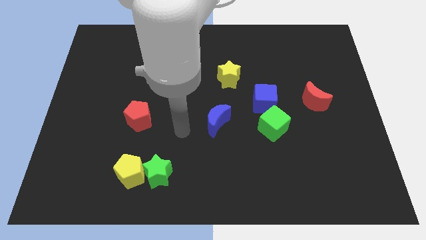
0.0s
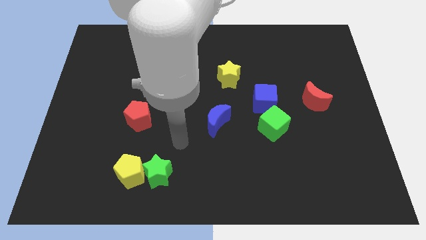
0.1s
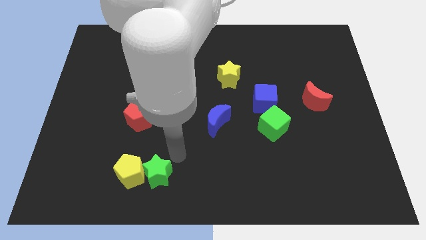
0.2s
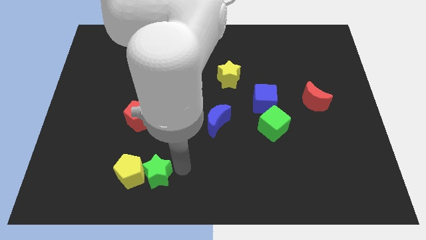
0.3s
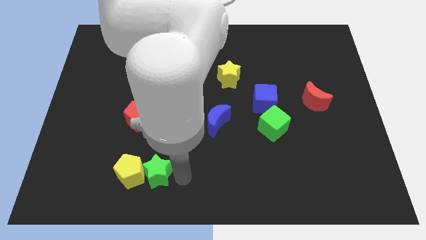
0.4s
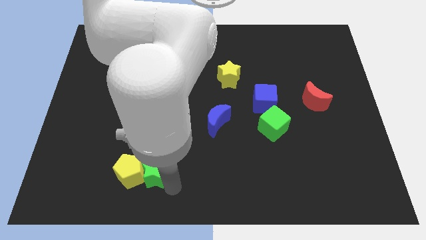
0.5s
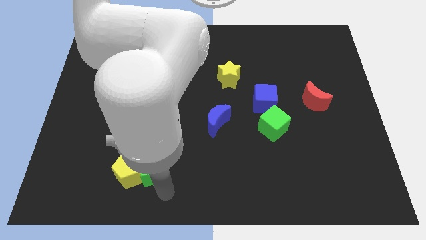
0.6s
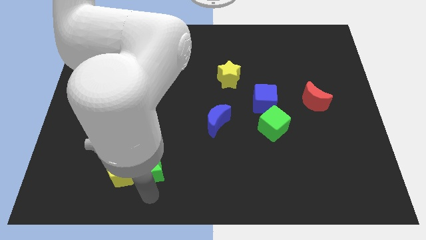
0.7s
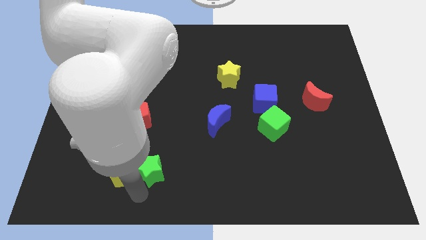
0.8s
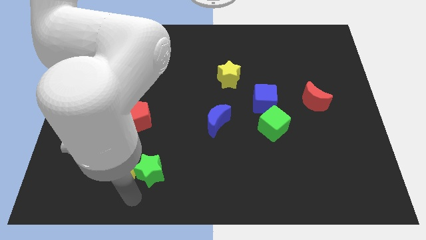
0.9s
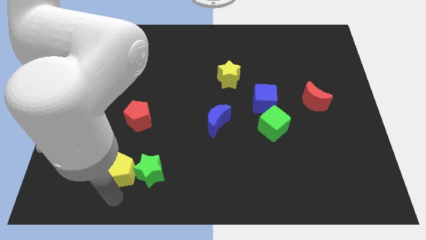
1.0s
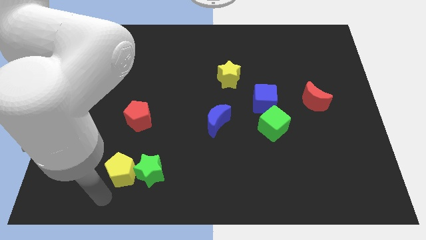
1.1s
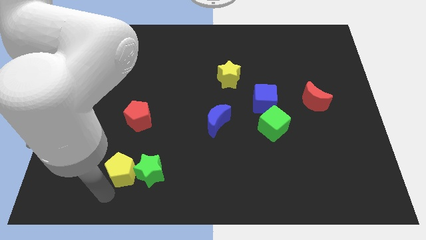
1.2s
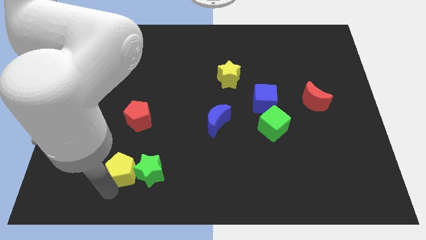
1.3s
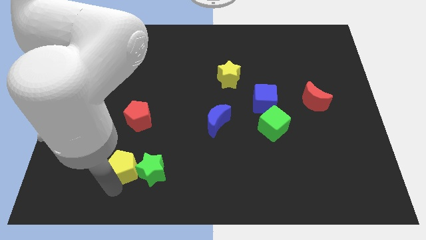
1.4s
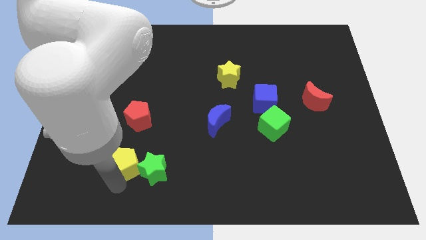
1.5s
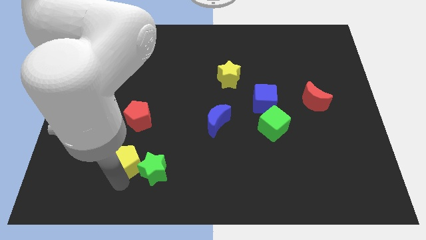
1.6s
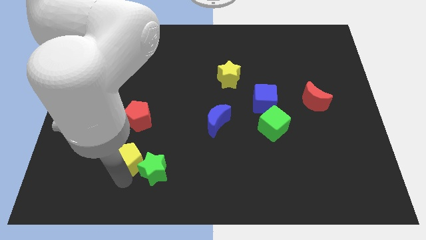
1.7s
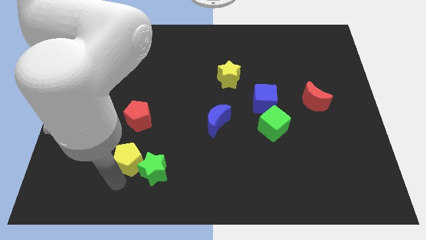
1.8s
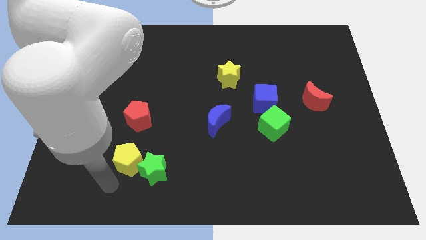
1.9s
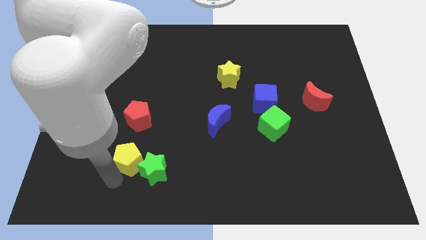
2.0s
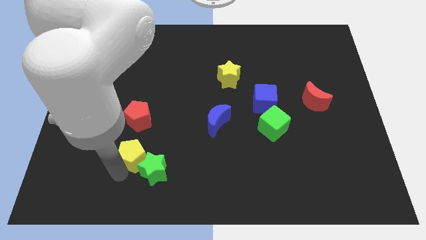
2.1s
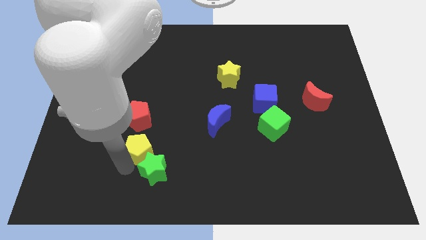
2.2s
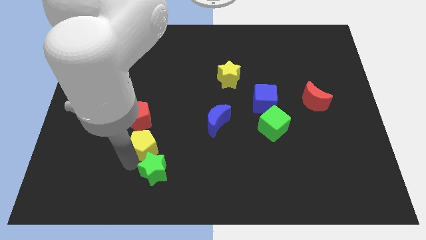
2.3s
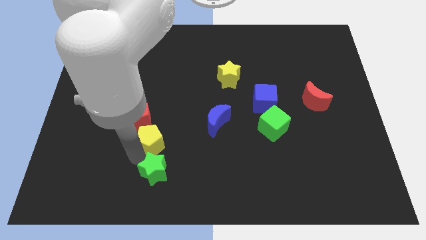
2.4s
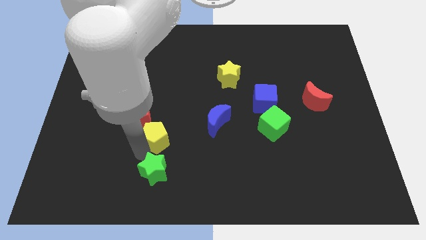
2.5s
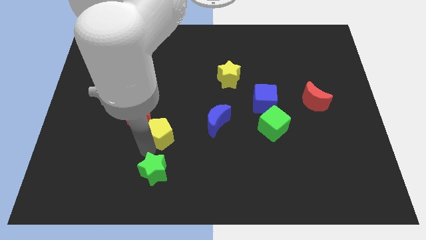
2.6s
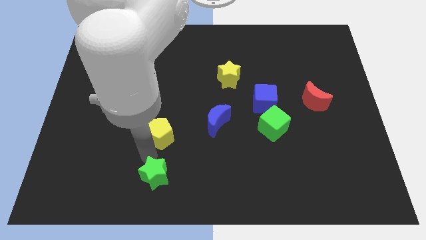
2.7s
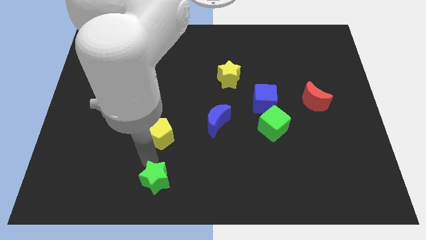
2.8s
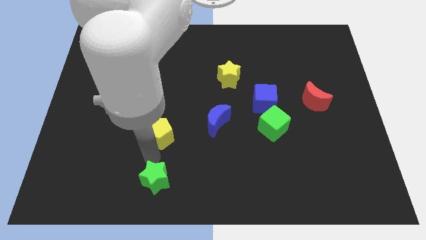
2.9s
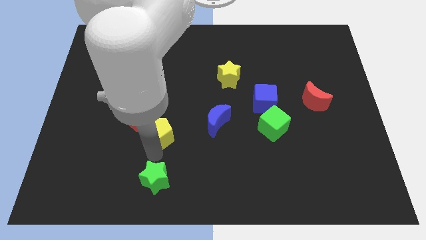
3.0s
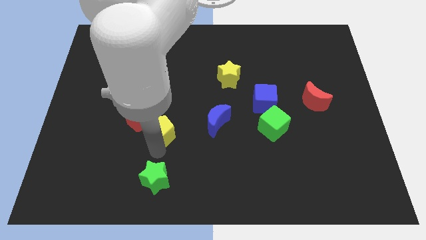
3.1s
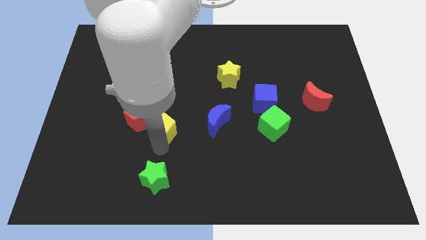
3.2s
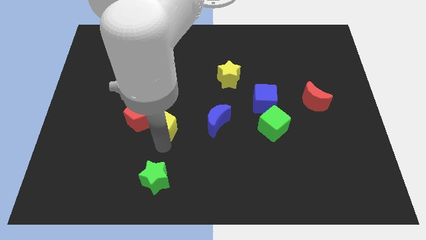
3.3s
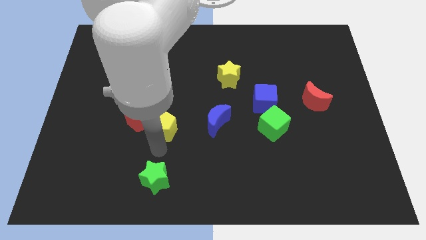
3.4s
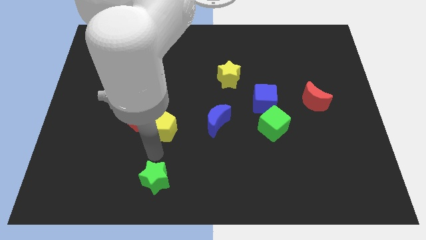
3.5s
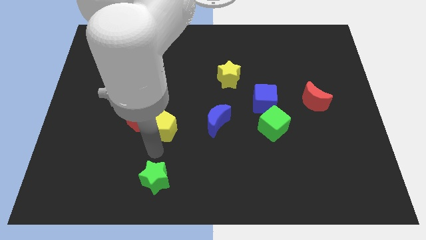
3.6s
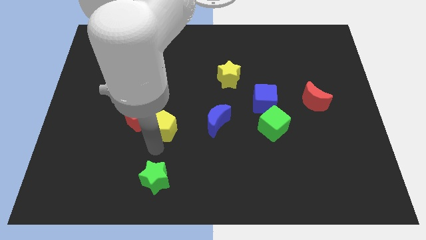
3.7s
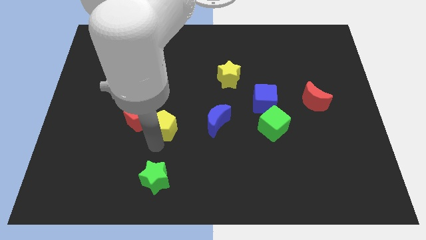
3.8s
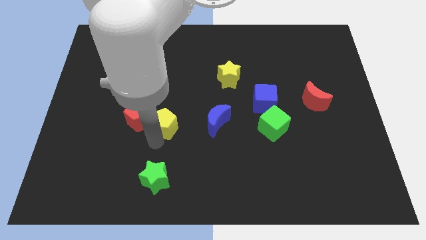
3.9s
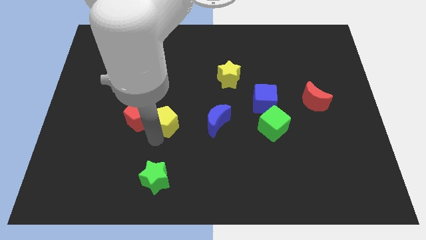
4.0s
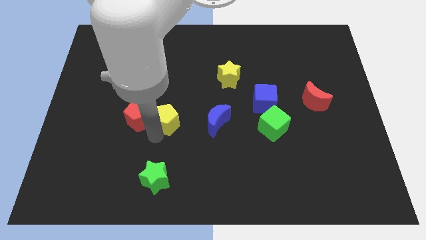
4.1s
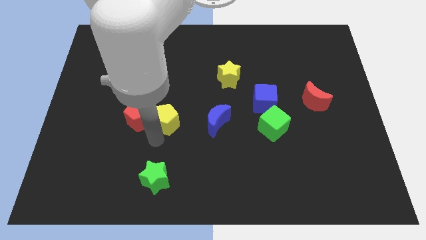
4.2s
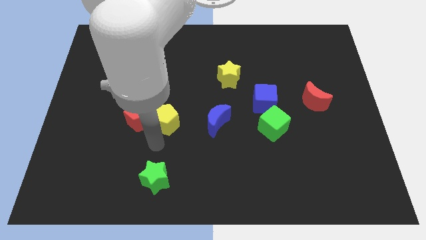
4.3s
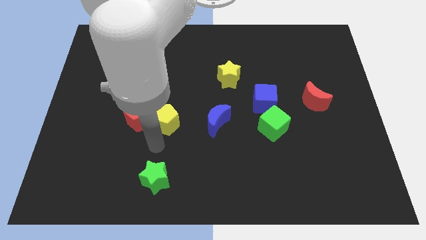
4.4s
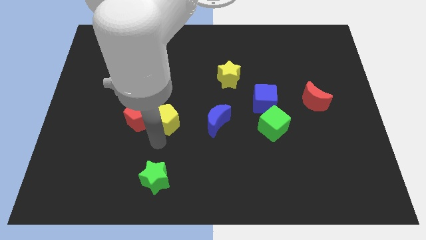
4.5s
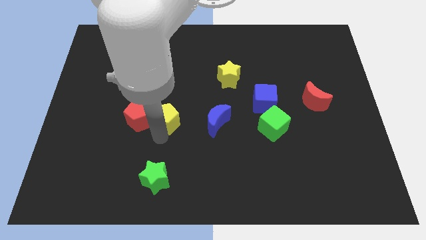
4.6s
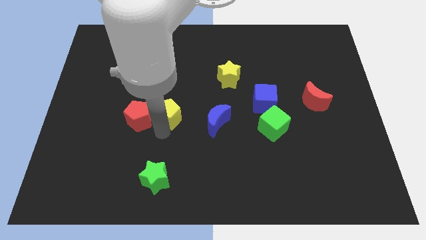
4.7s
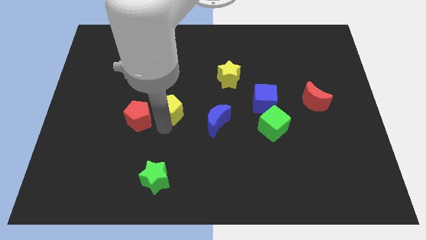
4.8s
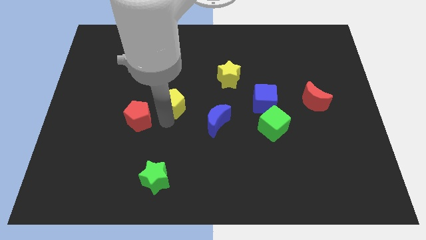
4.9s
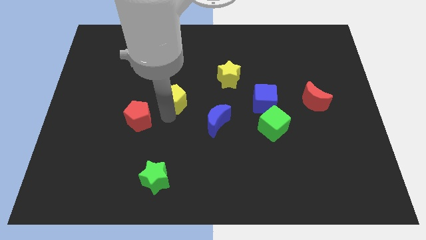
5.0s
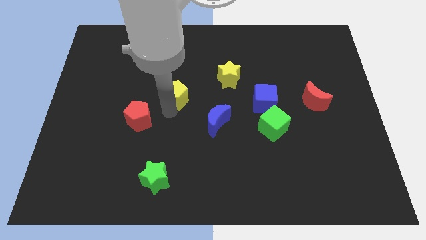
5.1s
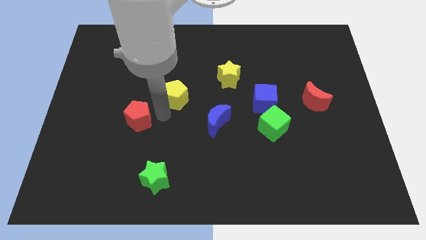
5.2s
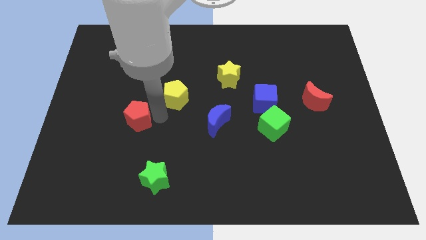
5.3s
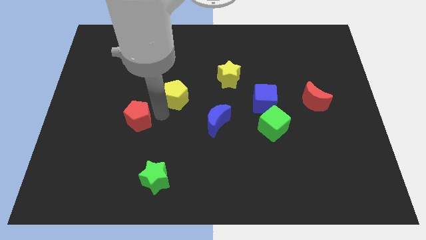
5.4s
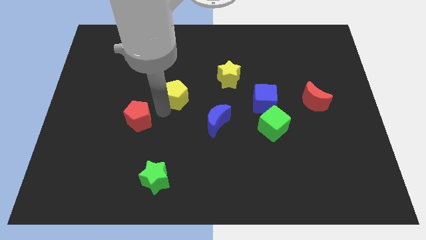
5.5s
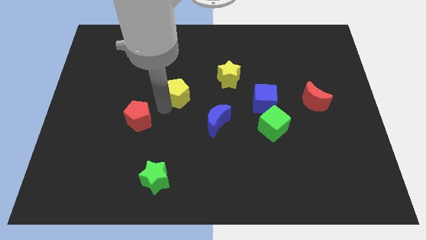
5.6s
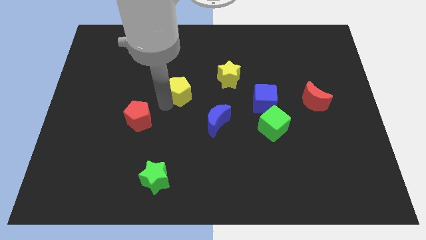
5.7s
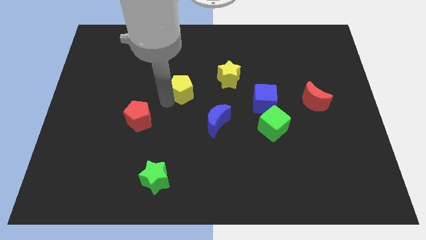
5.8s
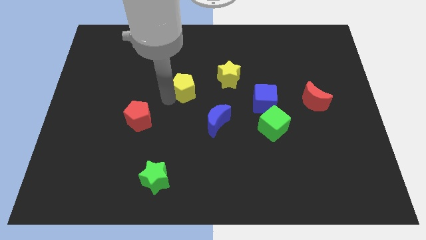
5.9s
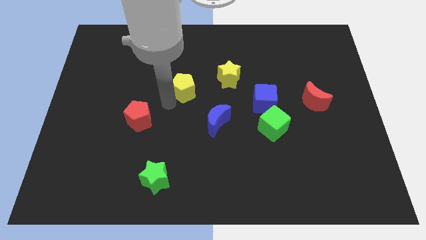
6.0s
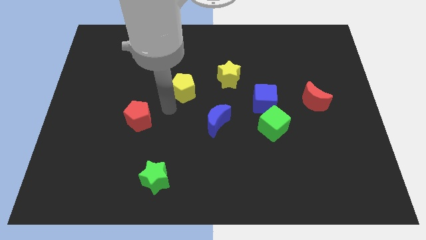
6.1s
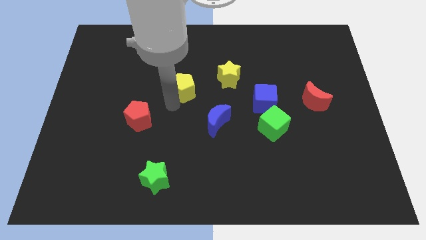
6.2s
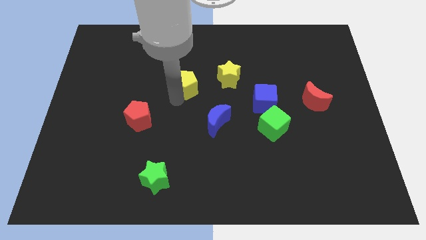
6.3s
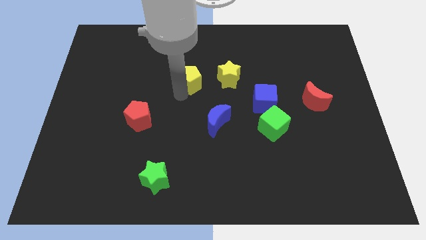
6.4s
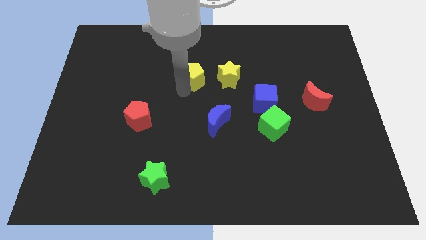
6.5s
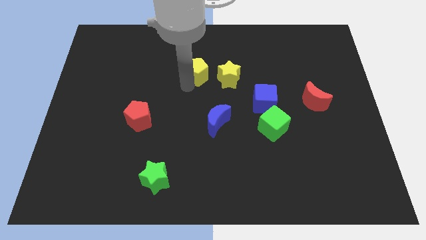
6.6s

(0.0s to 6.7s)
slide the yellow pentagon to the top left of the yellow star

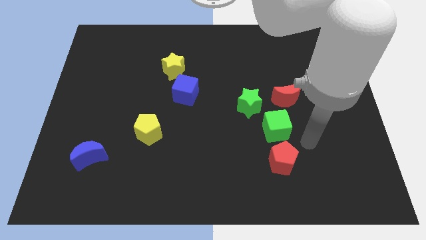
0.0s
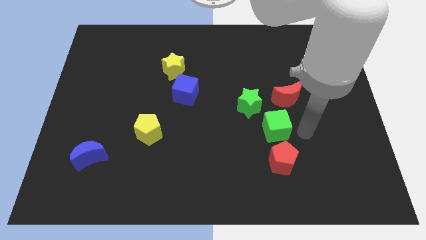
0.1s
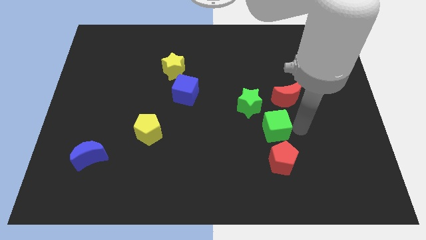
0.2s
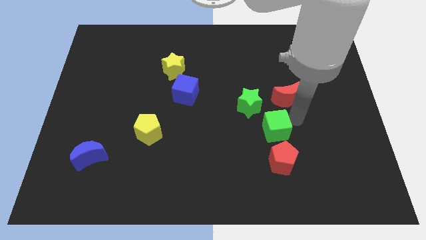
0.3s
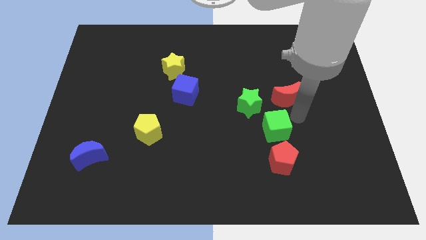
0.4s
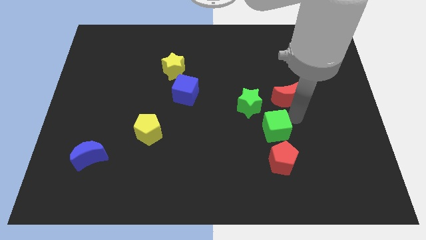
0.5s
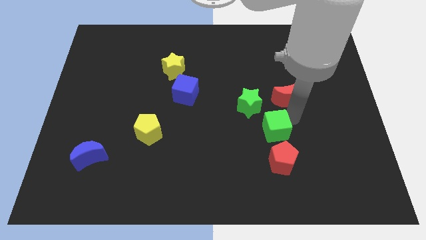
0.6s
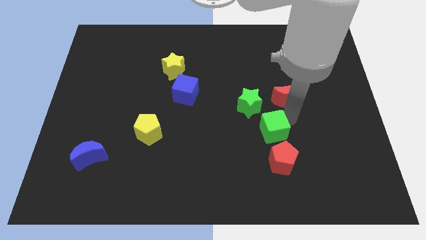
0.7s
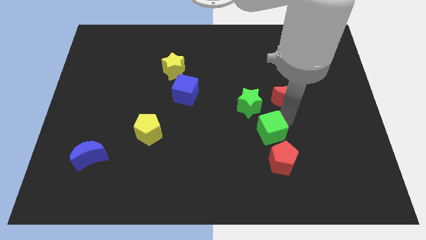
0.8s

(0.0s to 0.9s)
slide the green cube diagonally up and to the left of the red pentagon

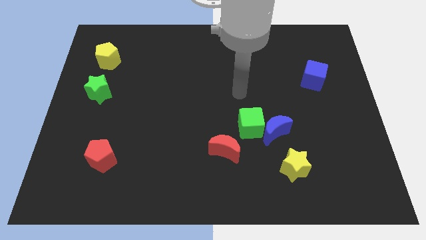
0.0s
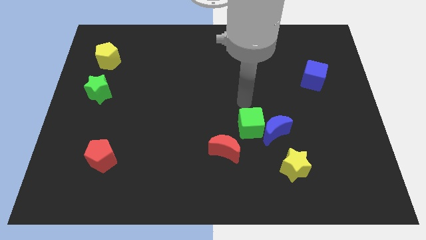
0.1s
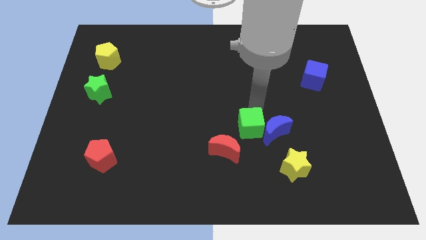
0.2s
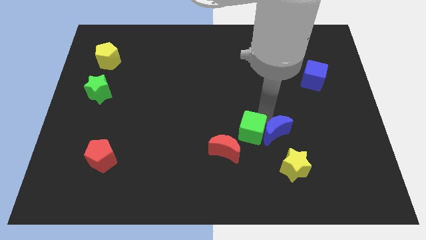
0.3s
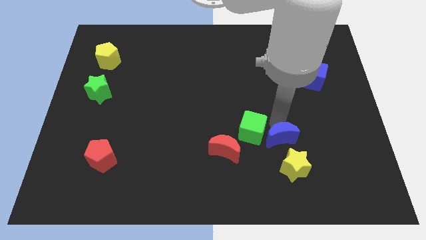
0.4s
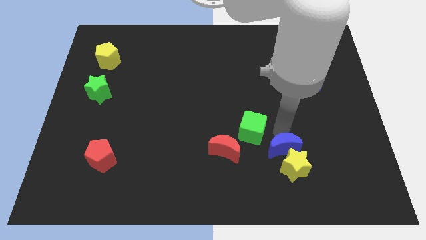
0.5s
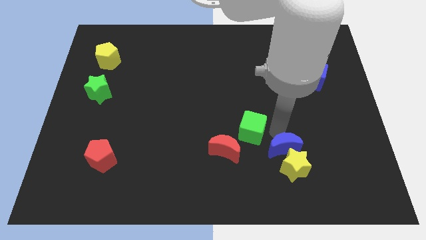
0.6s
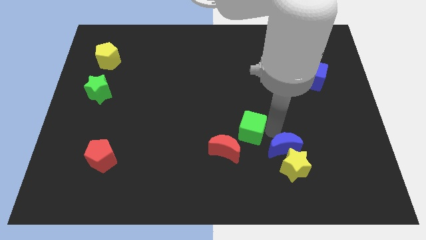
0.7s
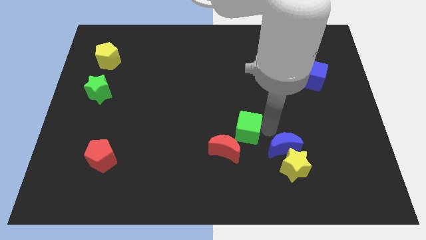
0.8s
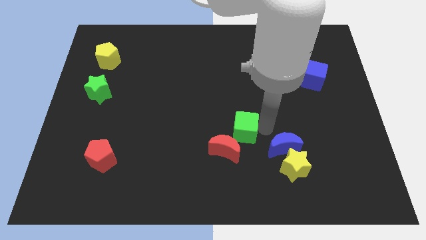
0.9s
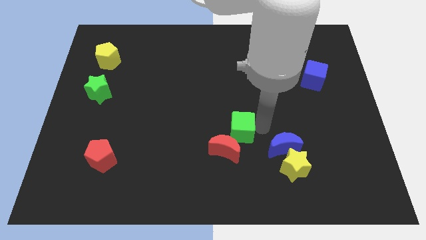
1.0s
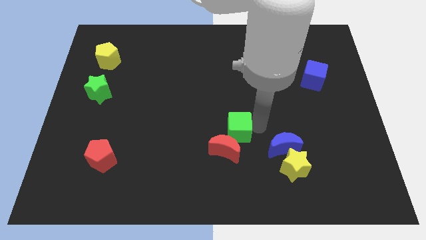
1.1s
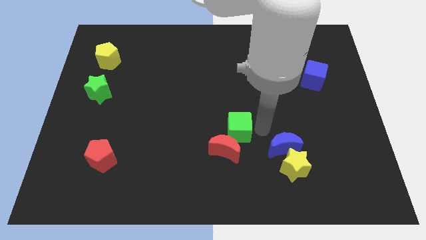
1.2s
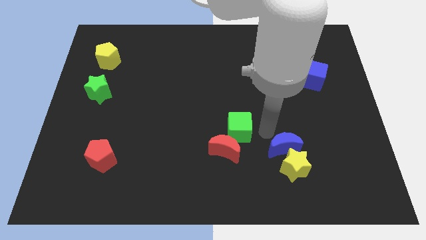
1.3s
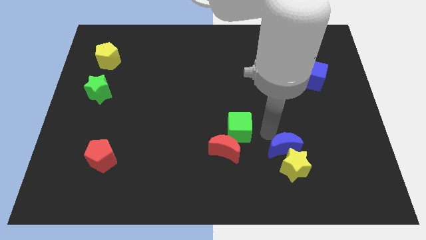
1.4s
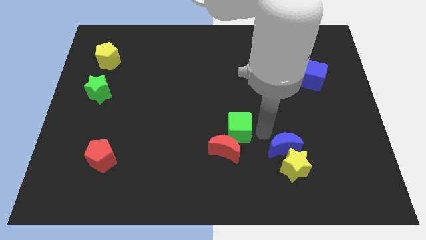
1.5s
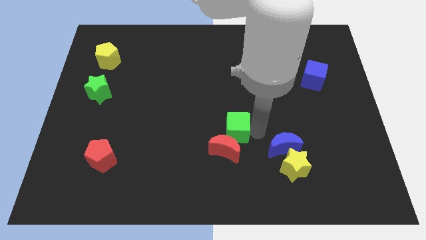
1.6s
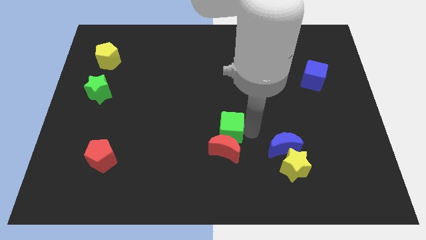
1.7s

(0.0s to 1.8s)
put the green cube to the top left side of the red moon
